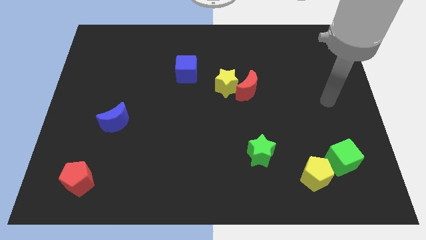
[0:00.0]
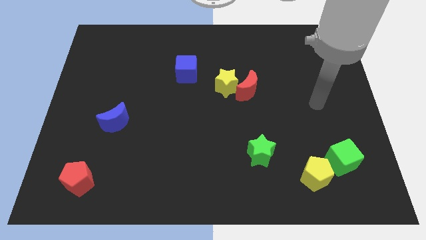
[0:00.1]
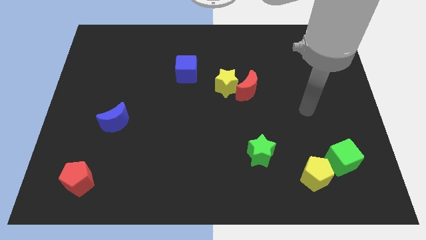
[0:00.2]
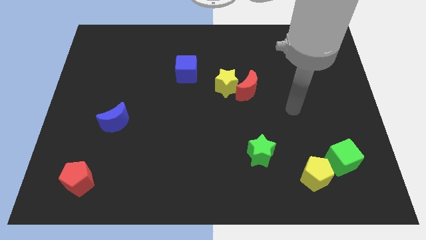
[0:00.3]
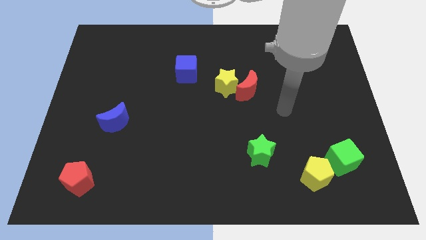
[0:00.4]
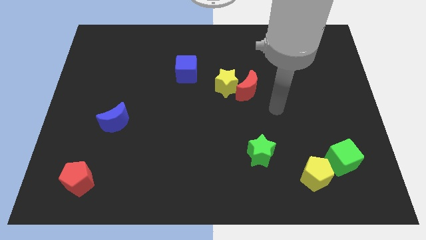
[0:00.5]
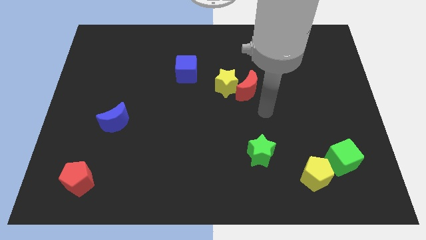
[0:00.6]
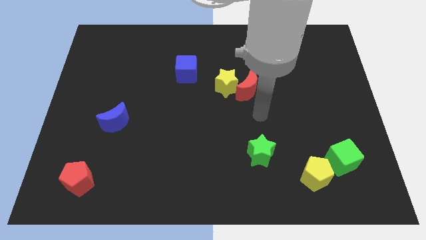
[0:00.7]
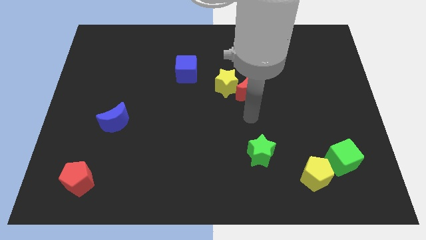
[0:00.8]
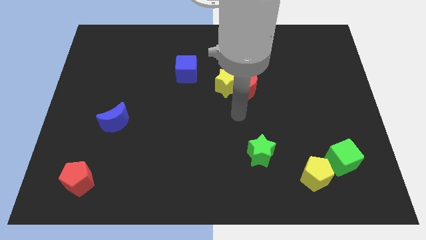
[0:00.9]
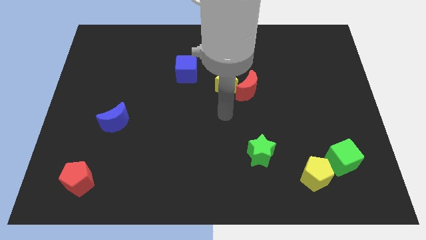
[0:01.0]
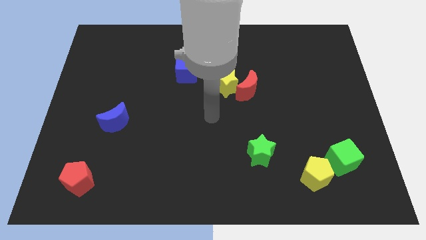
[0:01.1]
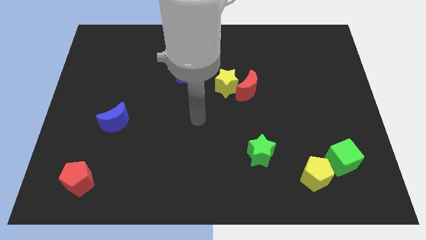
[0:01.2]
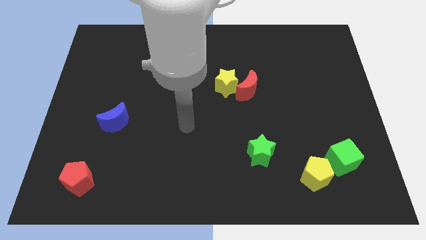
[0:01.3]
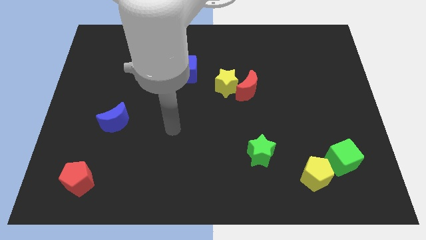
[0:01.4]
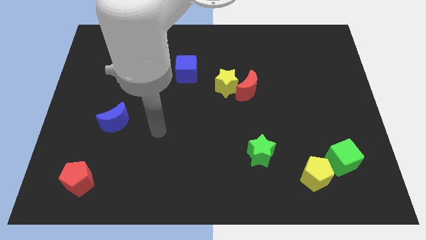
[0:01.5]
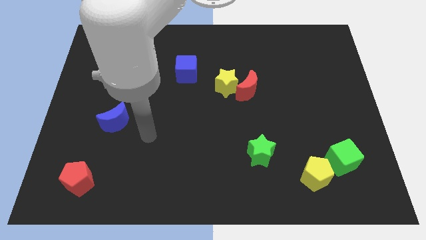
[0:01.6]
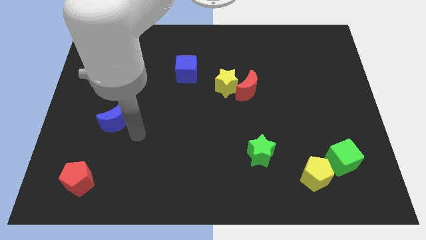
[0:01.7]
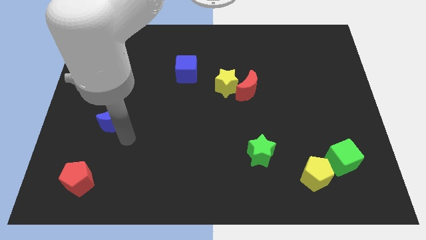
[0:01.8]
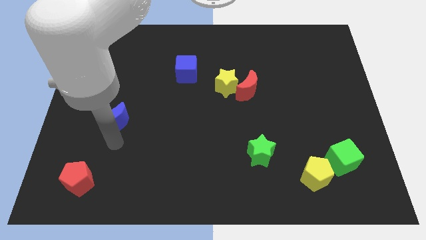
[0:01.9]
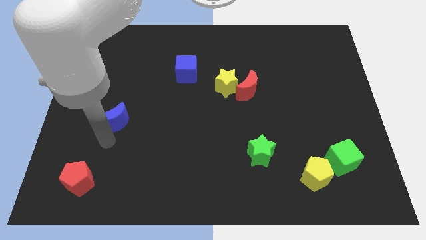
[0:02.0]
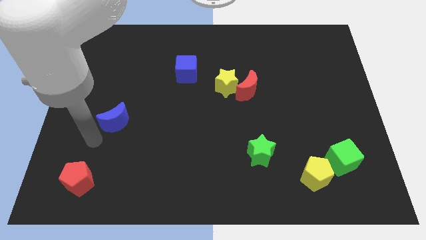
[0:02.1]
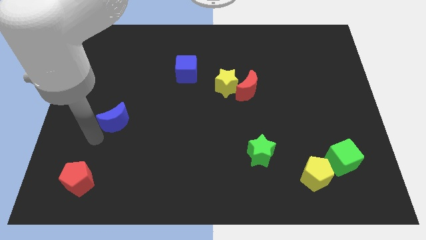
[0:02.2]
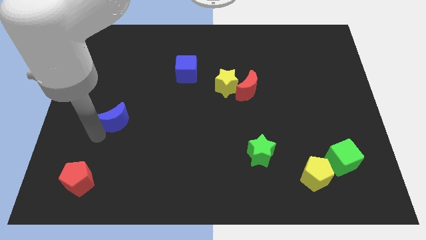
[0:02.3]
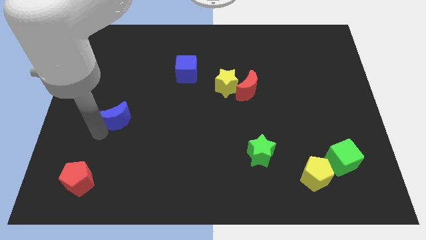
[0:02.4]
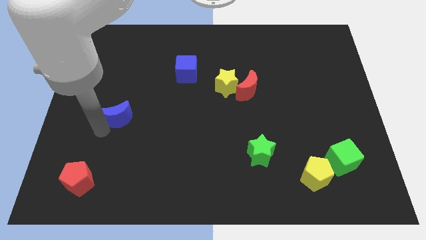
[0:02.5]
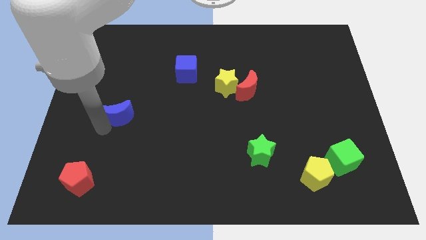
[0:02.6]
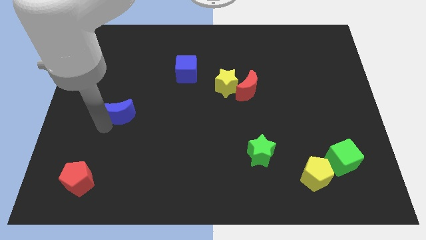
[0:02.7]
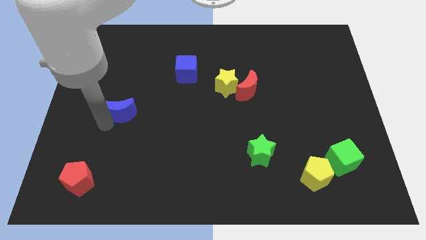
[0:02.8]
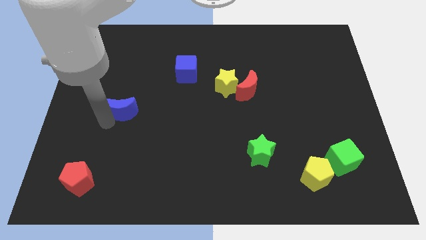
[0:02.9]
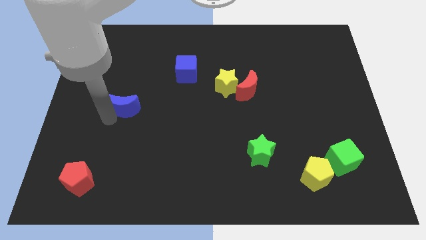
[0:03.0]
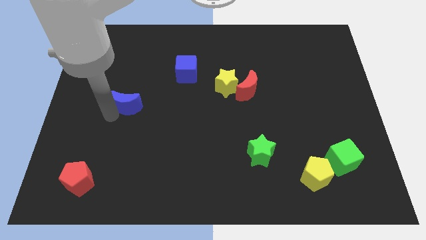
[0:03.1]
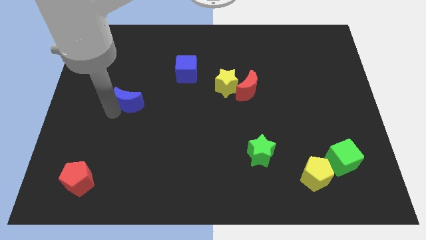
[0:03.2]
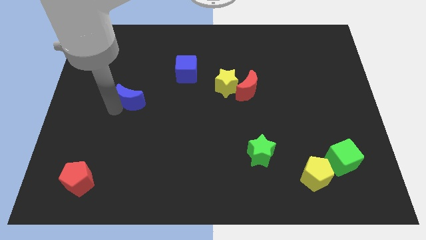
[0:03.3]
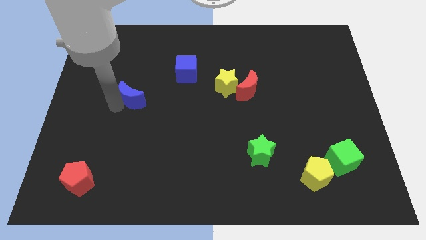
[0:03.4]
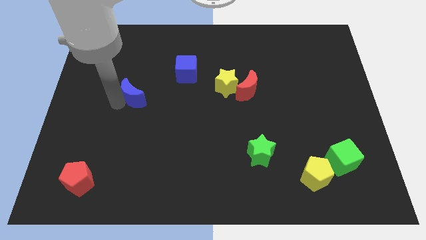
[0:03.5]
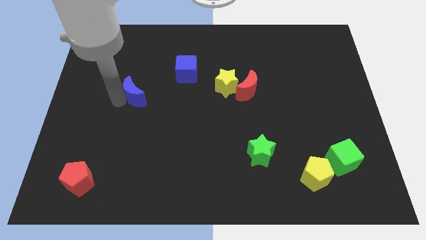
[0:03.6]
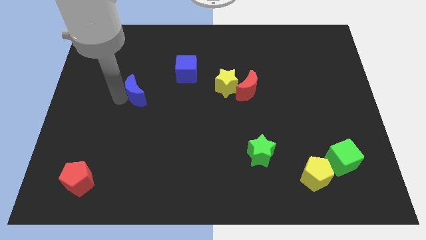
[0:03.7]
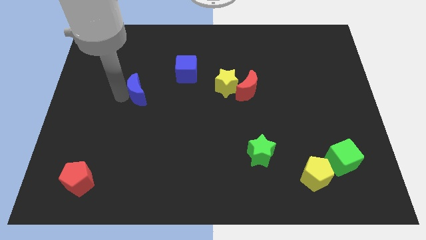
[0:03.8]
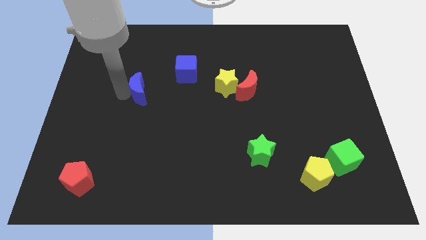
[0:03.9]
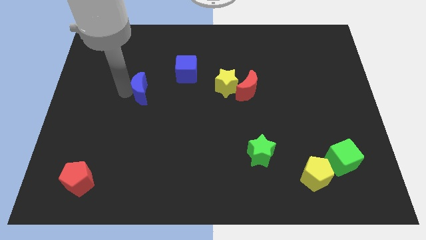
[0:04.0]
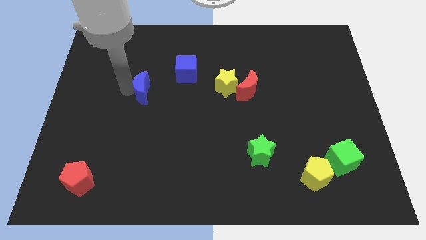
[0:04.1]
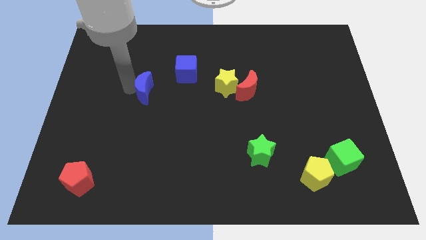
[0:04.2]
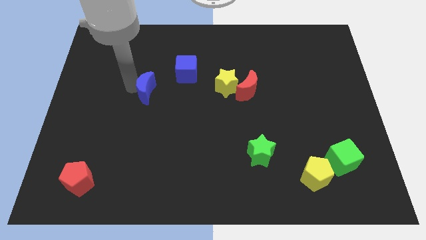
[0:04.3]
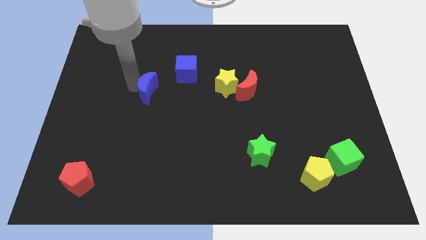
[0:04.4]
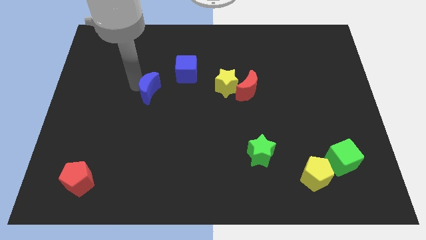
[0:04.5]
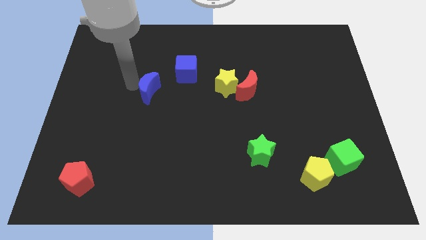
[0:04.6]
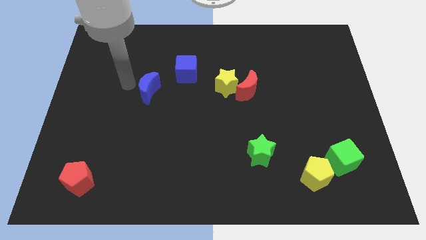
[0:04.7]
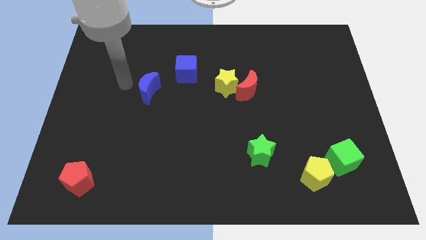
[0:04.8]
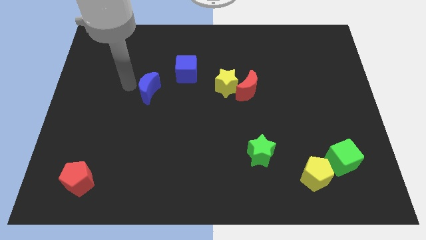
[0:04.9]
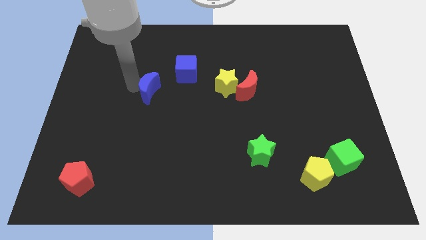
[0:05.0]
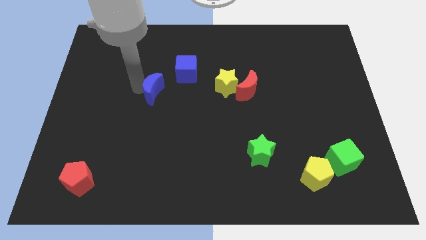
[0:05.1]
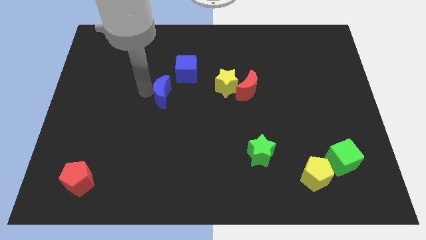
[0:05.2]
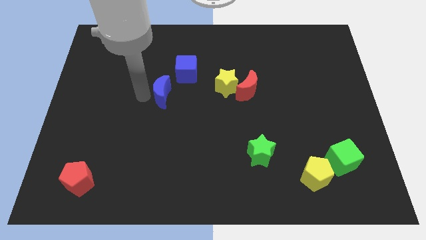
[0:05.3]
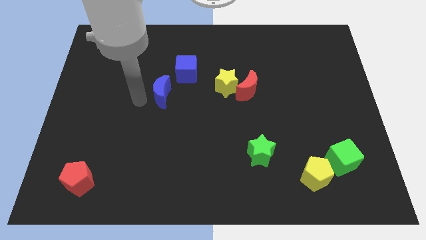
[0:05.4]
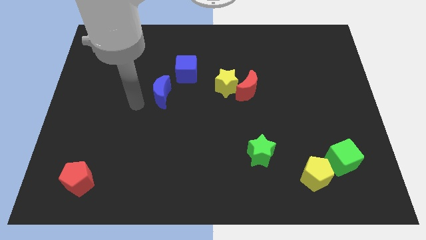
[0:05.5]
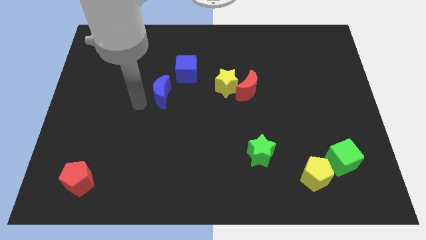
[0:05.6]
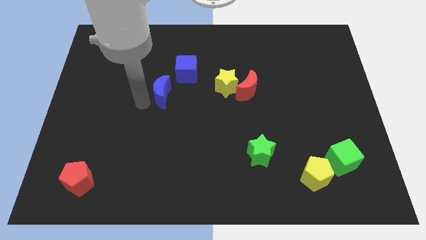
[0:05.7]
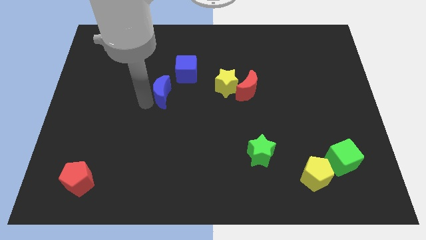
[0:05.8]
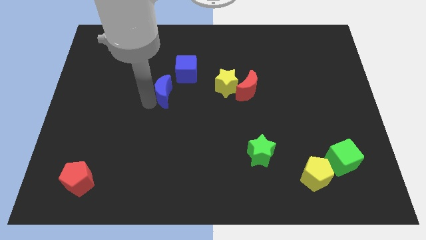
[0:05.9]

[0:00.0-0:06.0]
put the blue moon to the left of the yellow star

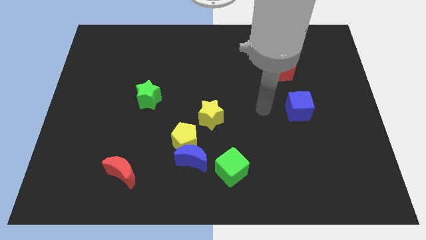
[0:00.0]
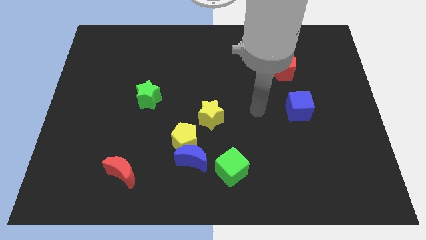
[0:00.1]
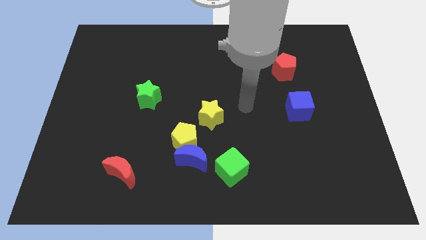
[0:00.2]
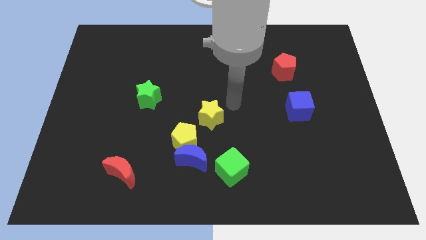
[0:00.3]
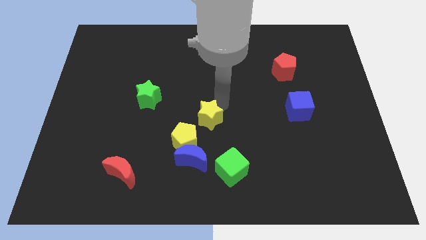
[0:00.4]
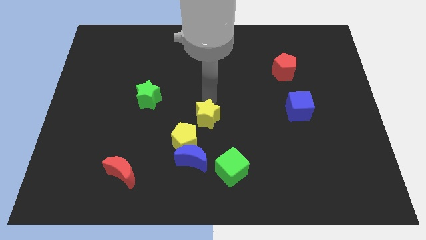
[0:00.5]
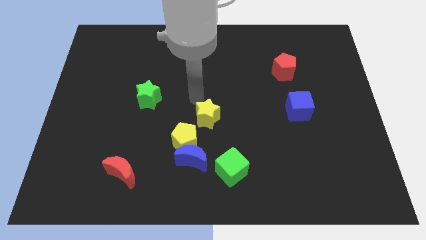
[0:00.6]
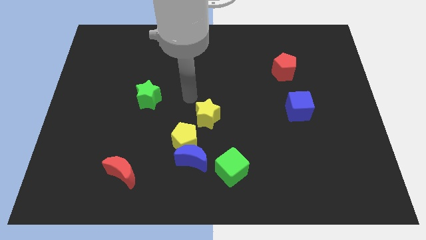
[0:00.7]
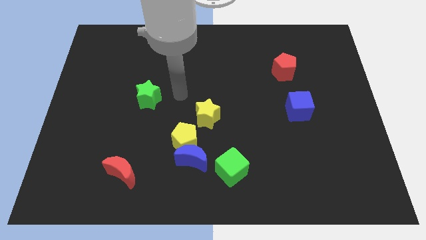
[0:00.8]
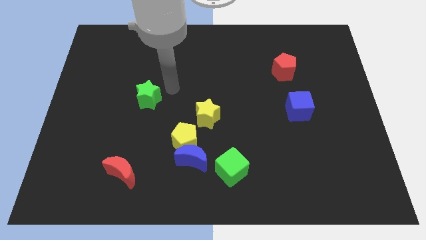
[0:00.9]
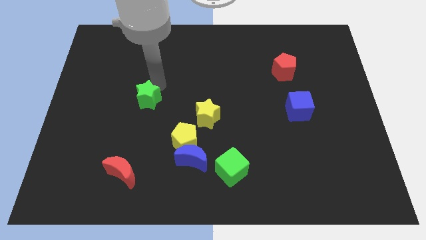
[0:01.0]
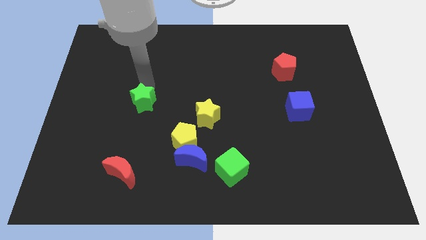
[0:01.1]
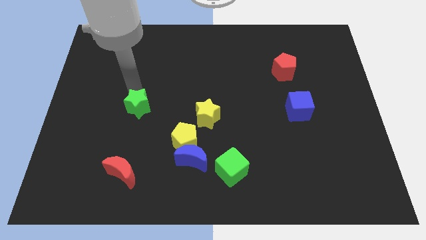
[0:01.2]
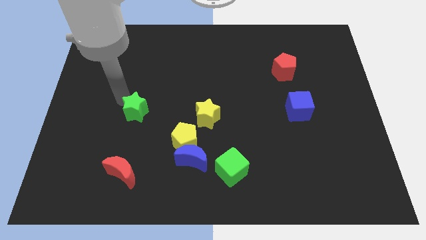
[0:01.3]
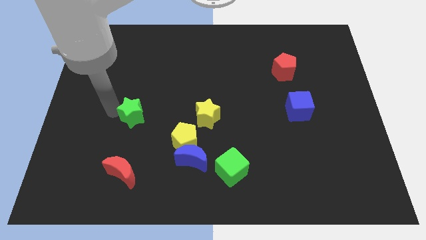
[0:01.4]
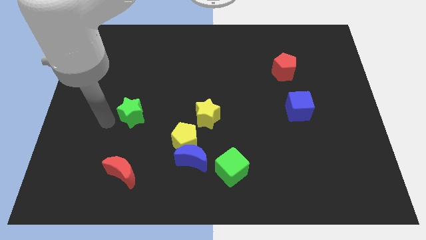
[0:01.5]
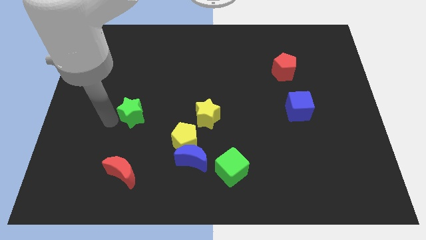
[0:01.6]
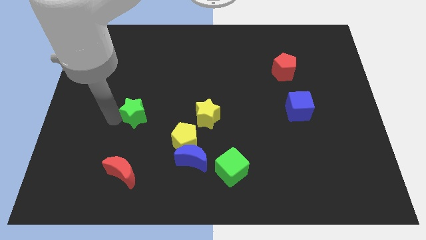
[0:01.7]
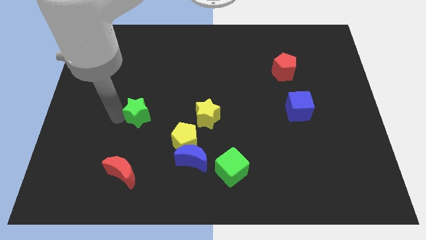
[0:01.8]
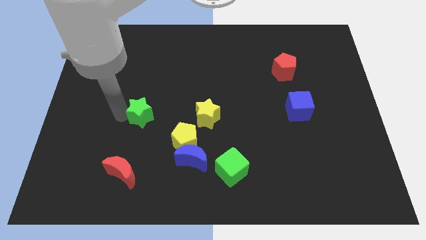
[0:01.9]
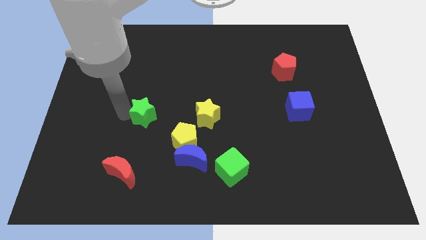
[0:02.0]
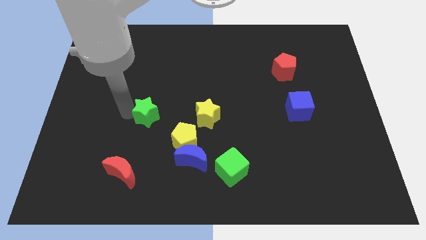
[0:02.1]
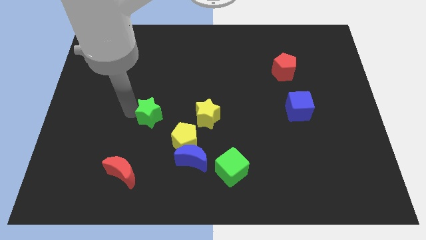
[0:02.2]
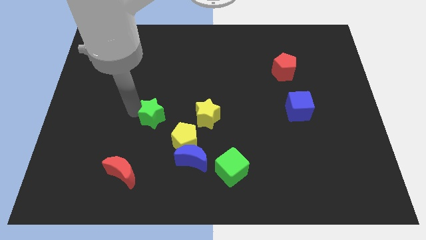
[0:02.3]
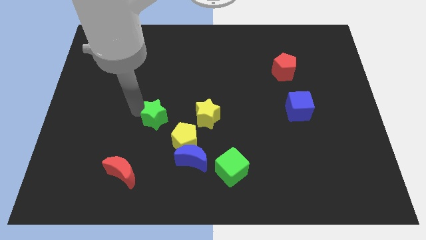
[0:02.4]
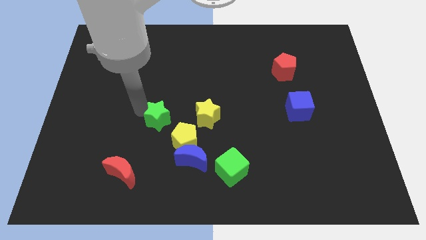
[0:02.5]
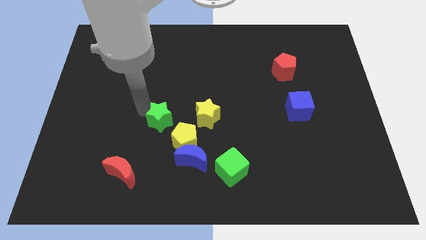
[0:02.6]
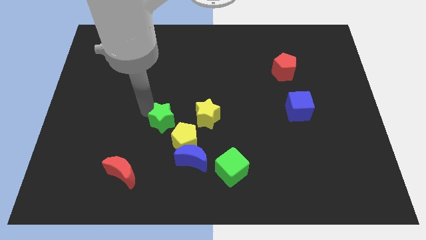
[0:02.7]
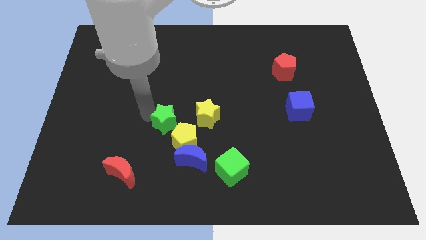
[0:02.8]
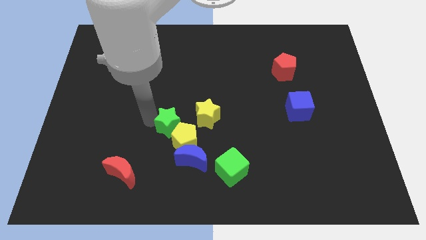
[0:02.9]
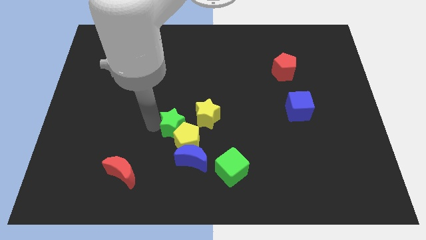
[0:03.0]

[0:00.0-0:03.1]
push the green star above the blue moon

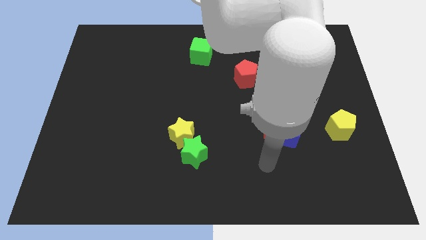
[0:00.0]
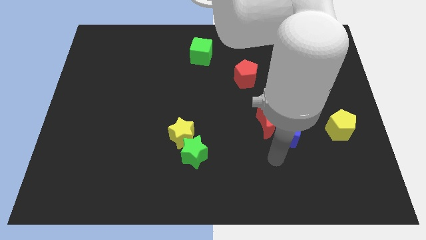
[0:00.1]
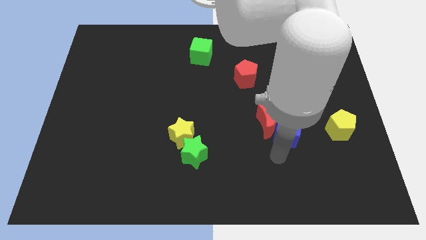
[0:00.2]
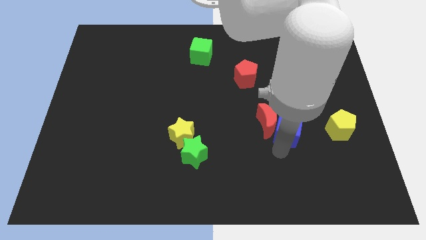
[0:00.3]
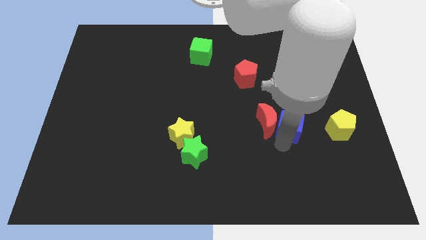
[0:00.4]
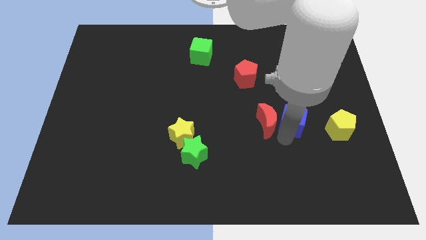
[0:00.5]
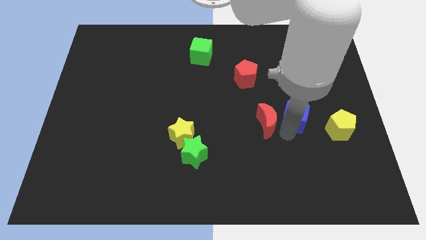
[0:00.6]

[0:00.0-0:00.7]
slide the blue cube below the blue moon
